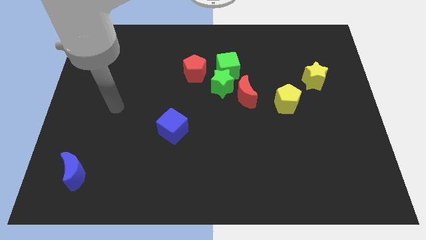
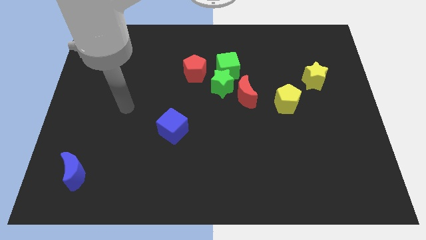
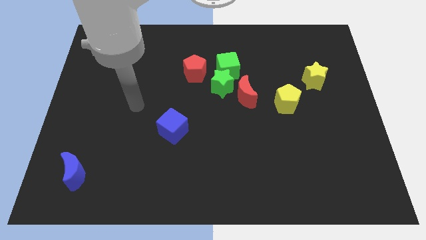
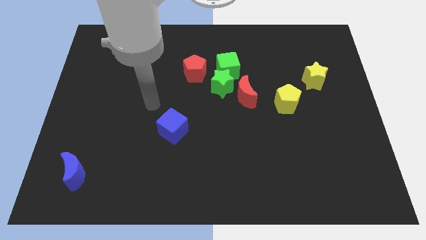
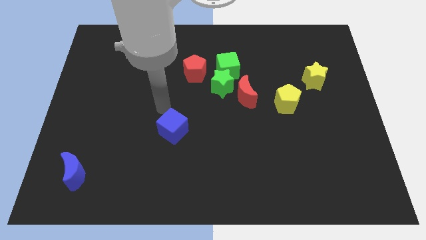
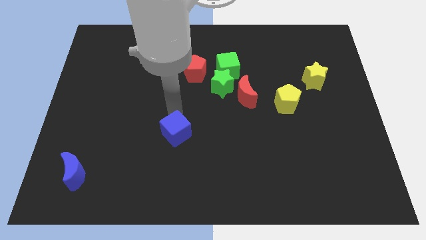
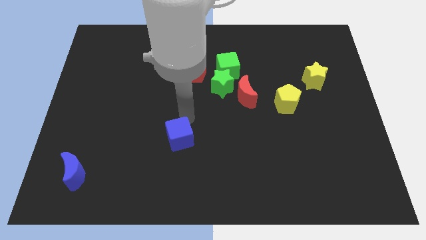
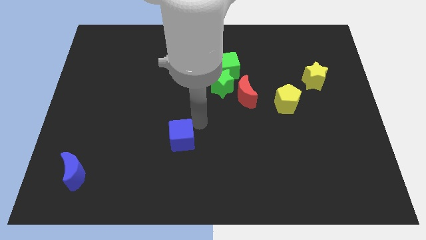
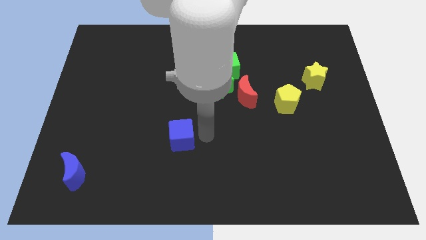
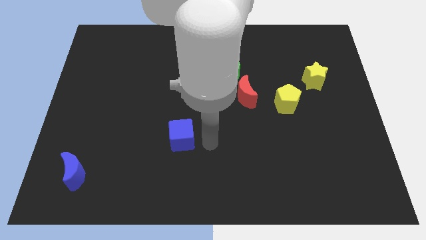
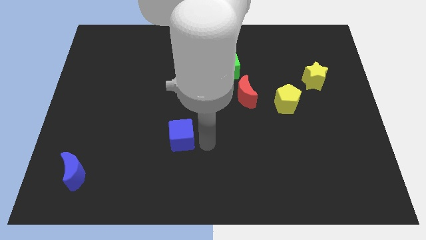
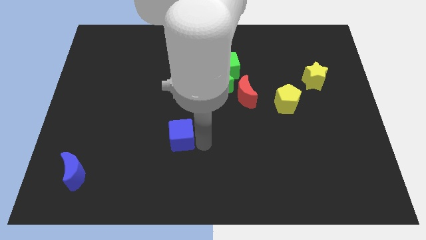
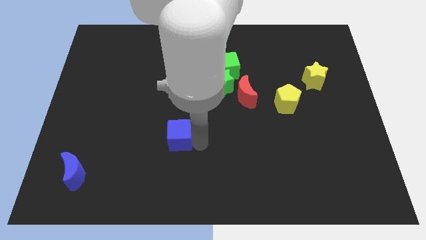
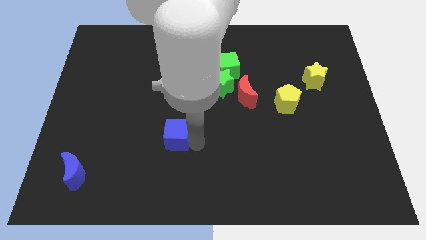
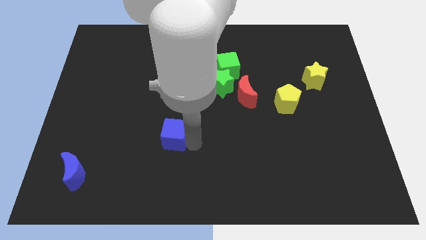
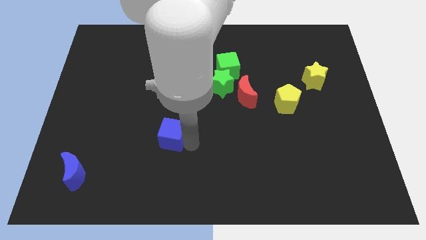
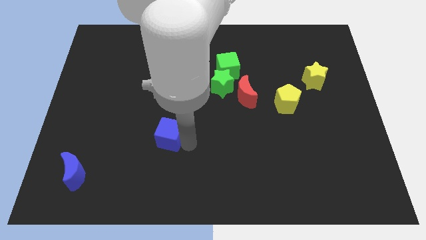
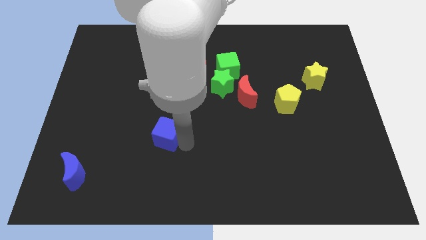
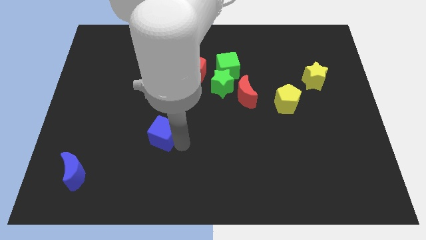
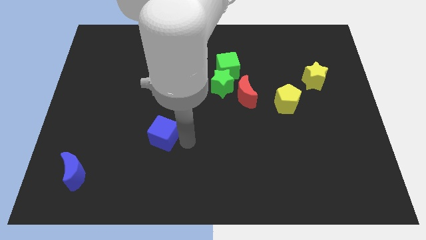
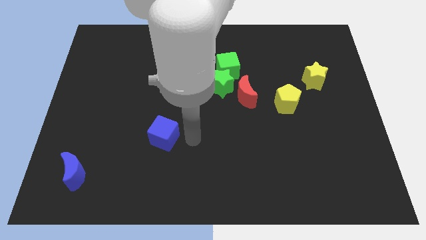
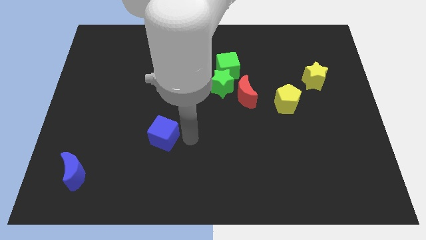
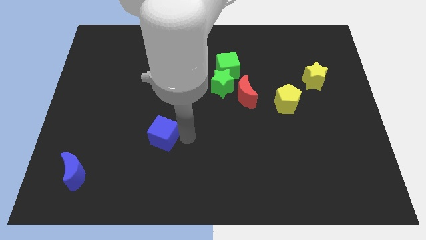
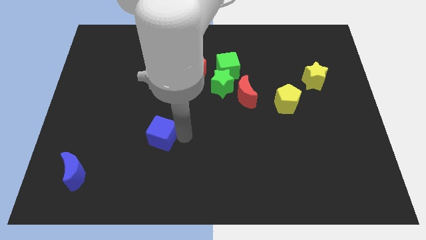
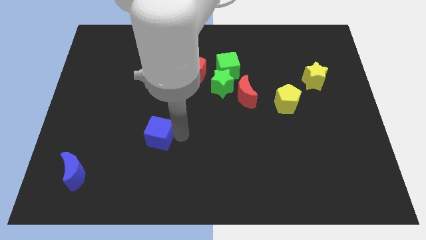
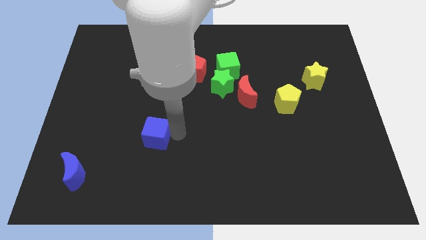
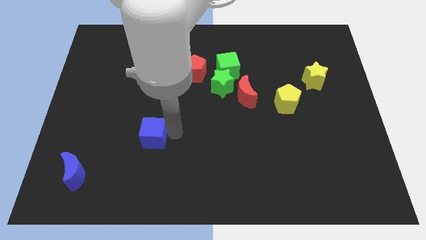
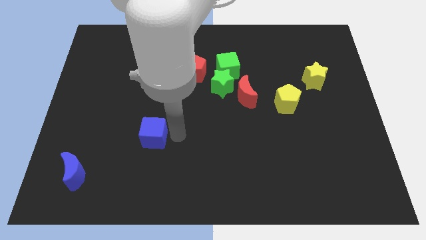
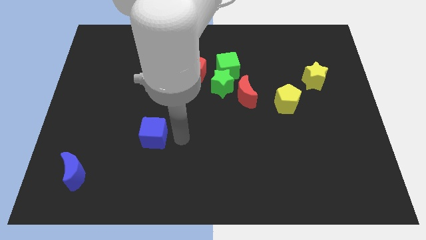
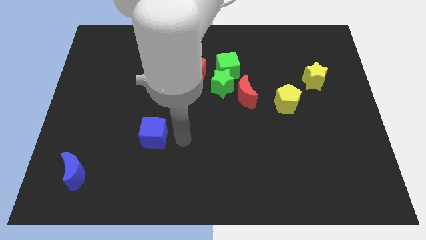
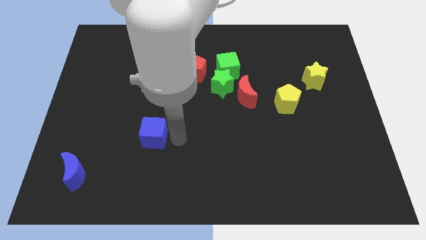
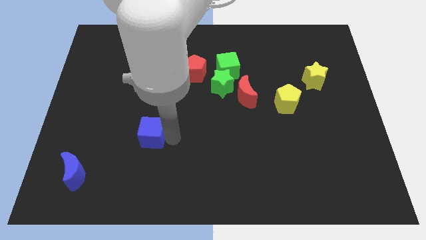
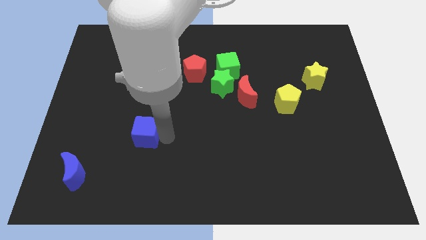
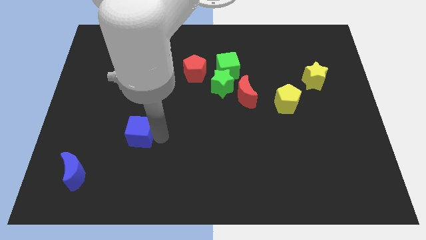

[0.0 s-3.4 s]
move the blue cube a bit left

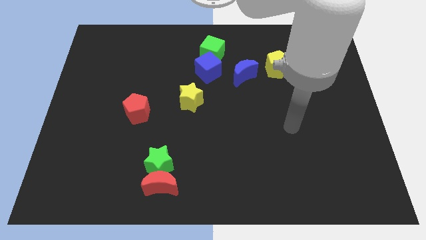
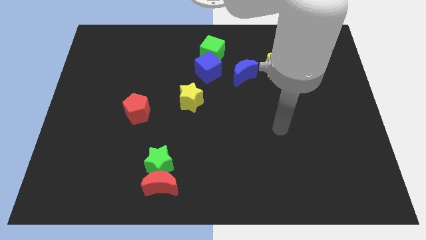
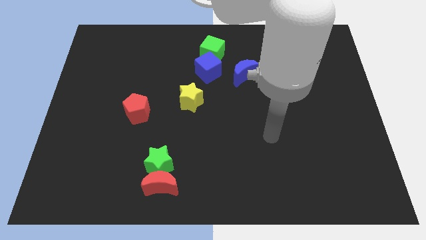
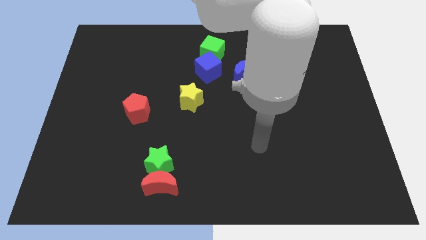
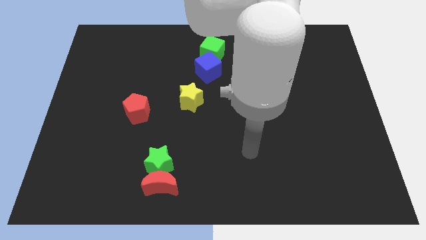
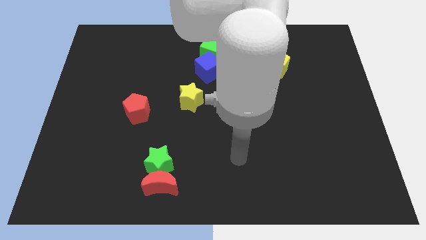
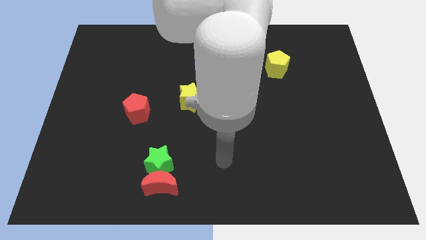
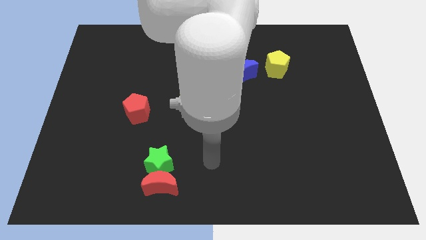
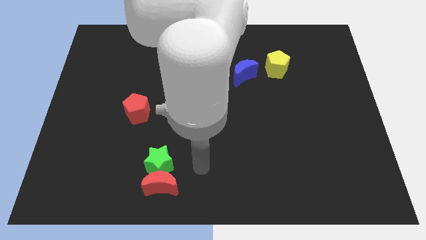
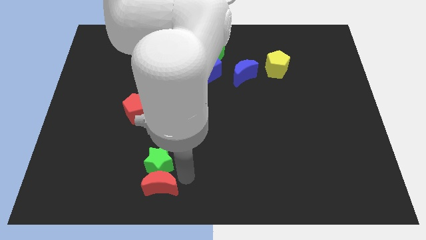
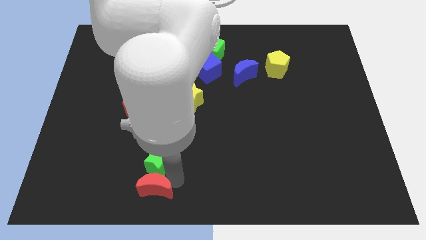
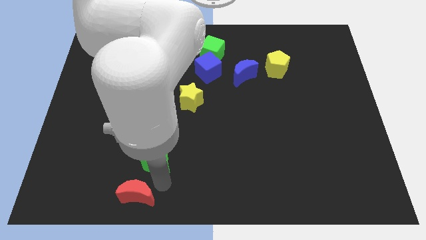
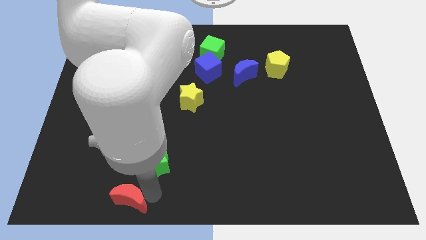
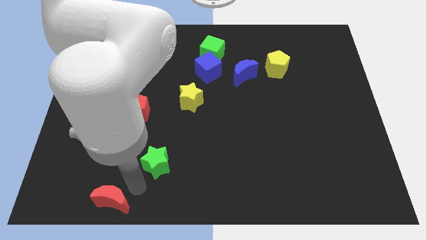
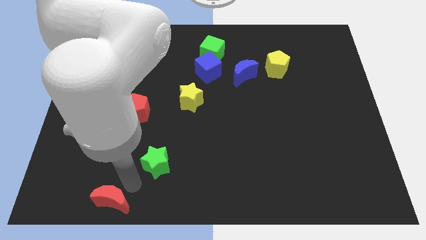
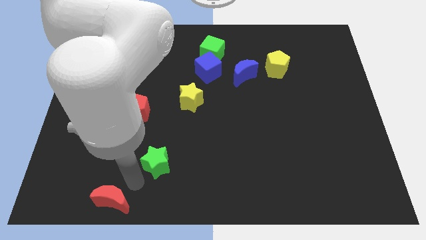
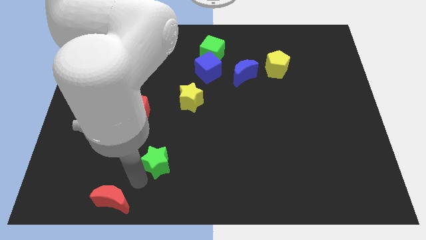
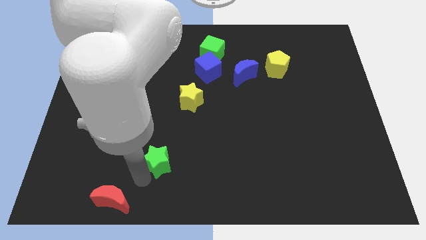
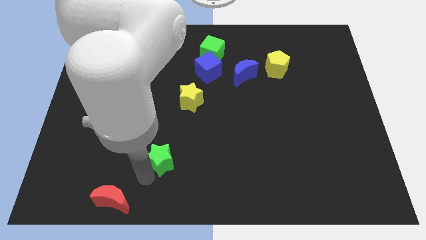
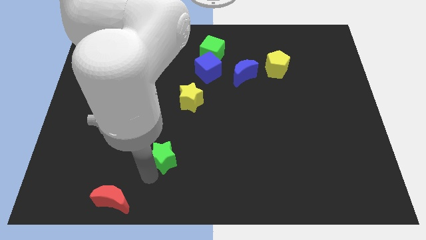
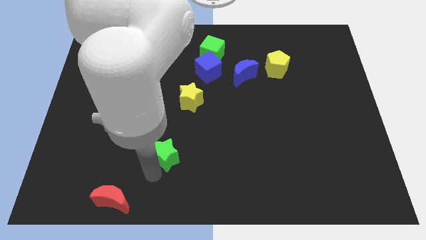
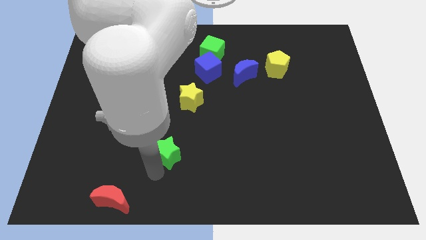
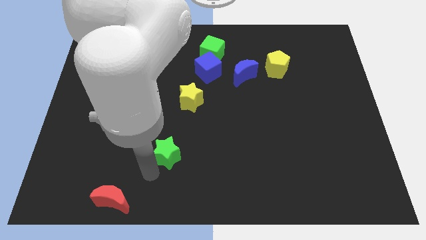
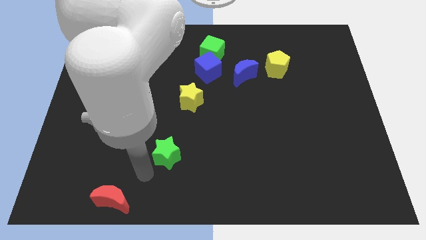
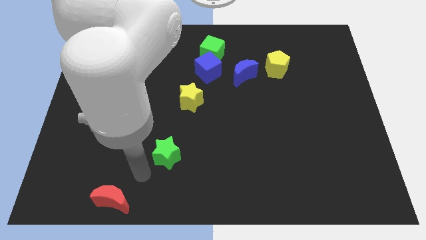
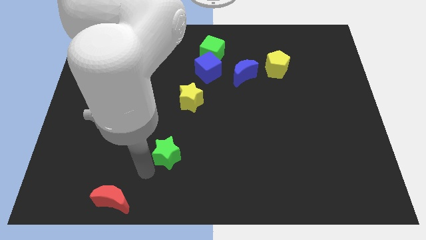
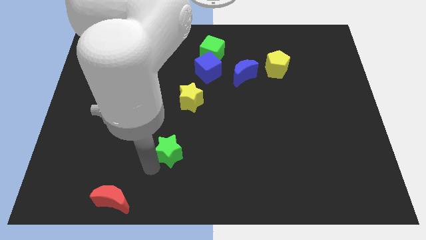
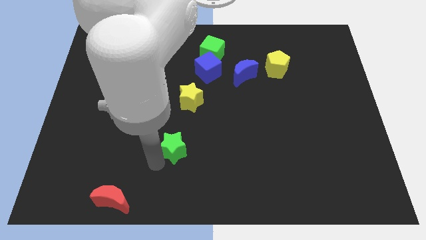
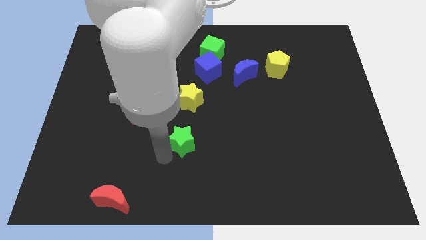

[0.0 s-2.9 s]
move the green star somewhat diagonally up and to the right

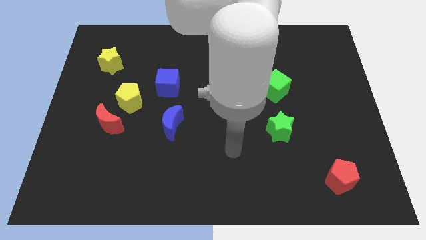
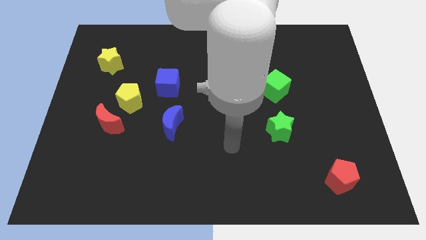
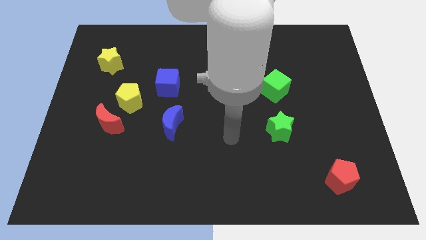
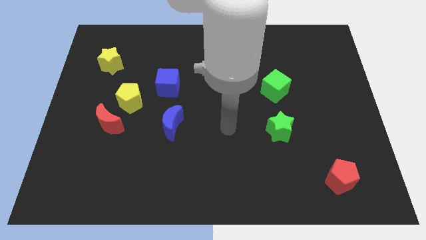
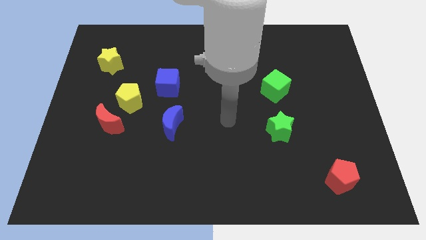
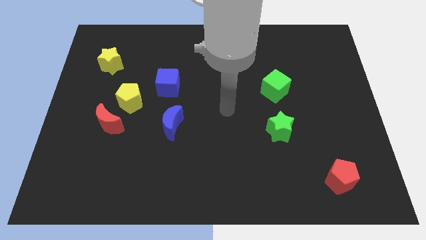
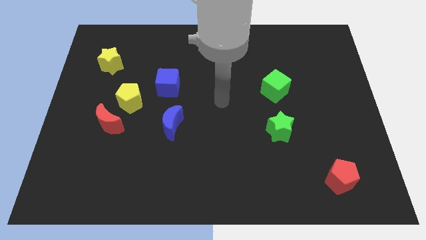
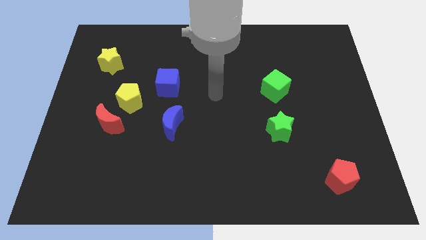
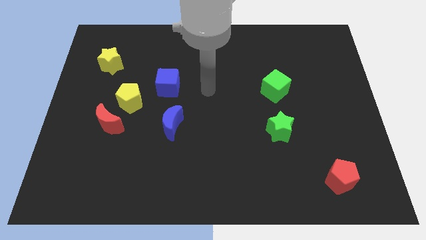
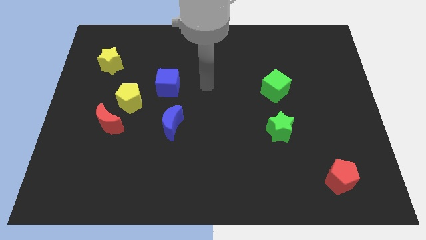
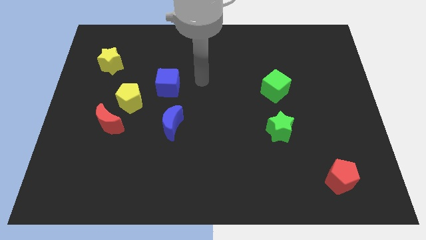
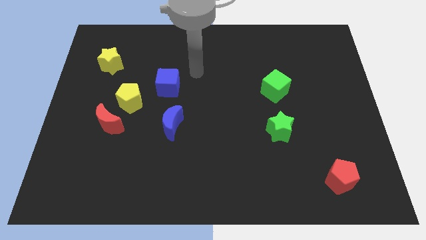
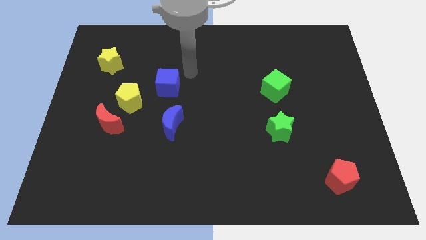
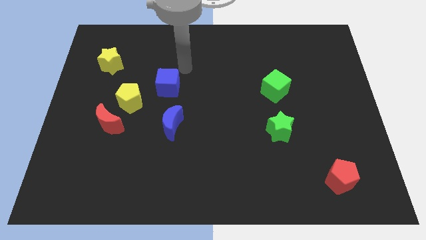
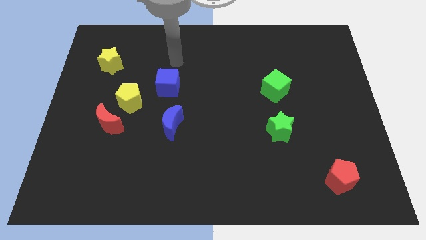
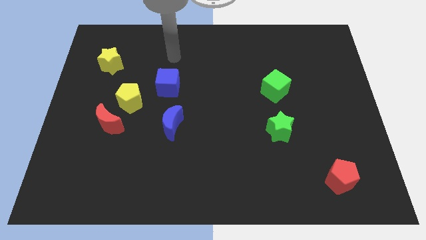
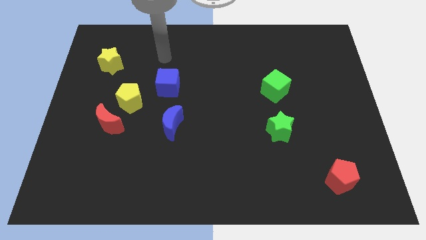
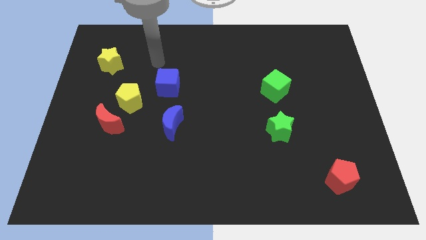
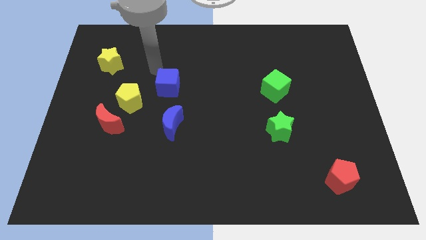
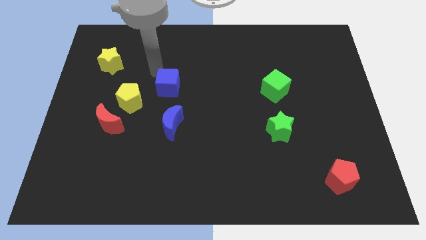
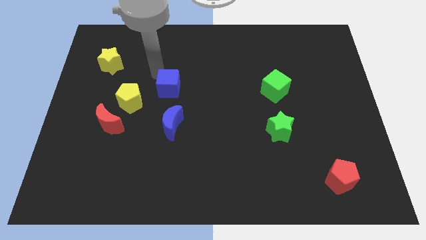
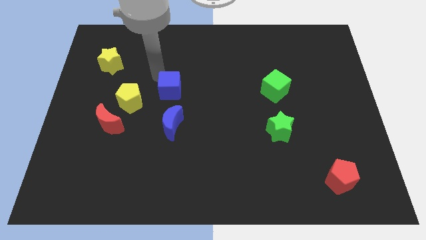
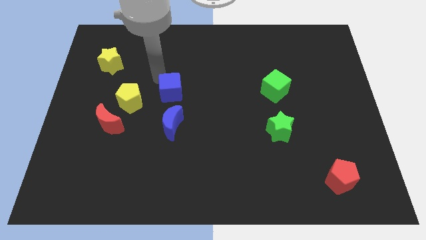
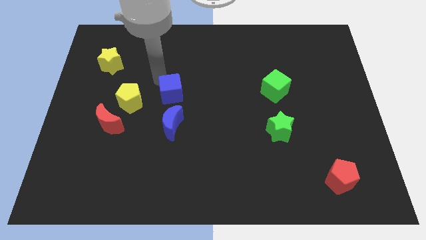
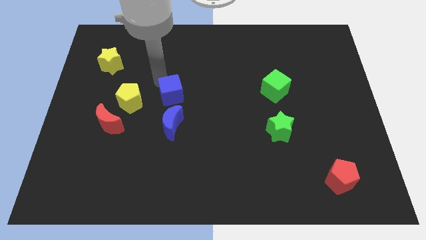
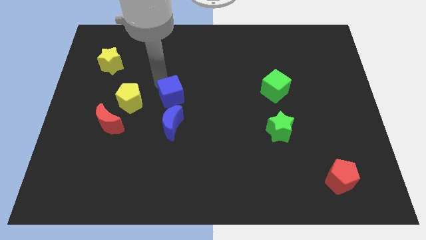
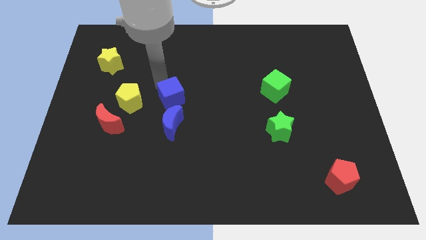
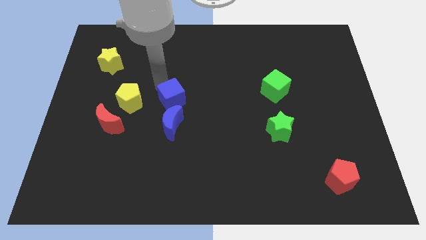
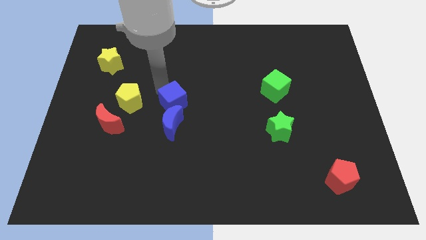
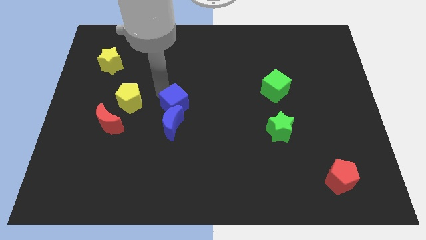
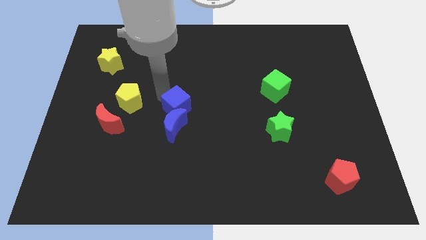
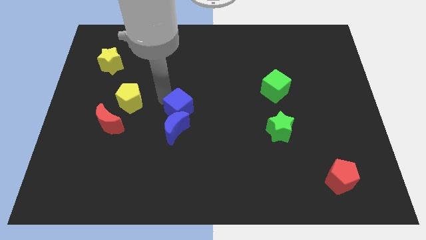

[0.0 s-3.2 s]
slide the blue cube a little down and right diagonally
